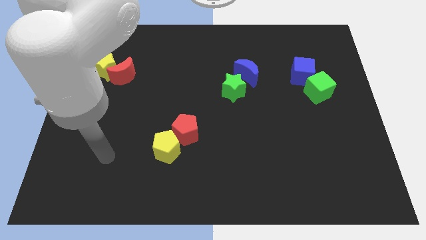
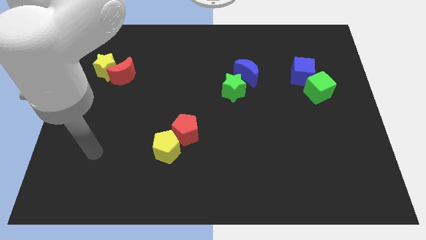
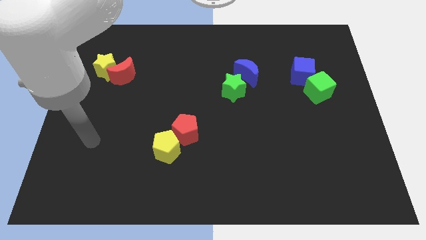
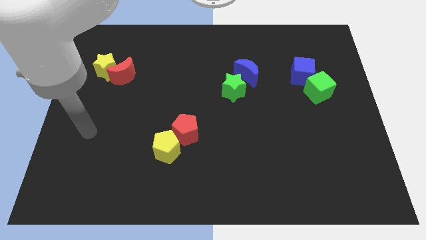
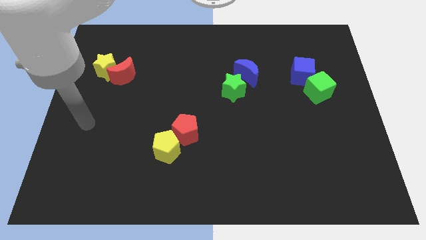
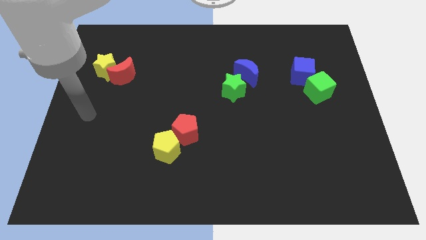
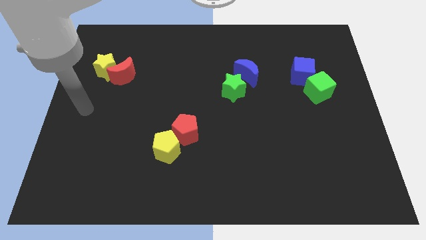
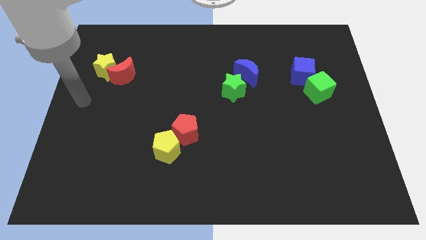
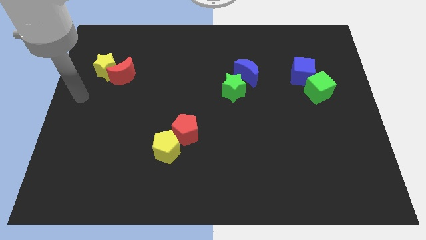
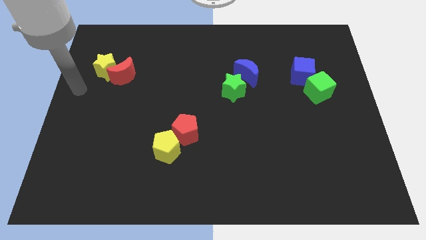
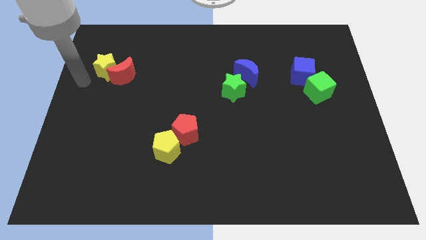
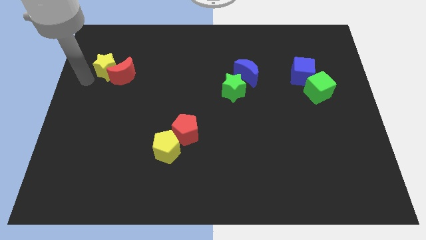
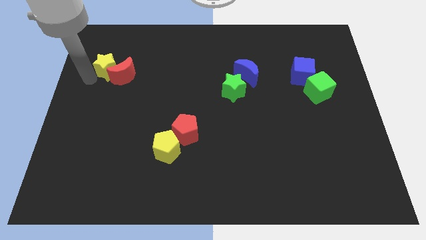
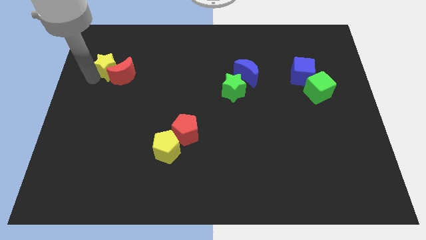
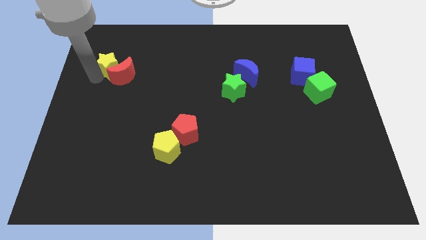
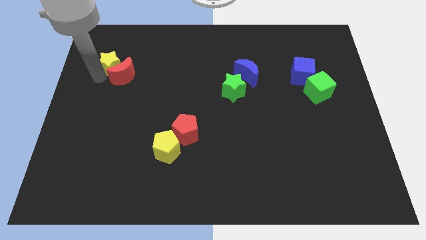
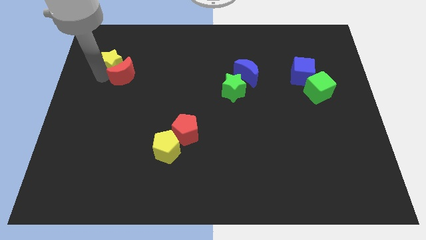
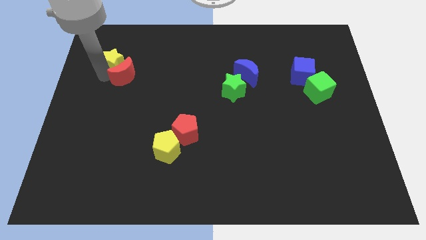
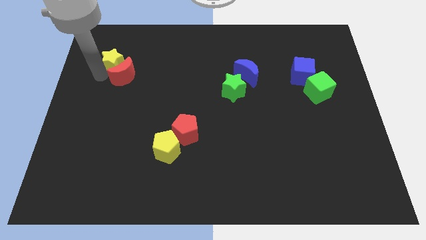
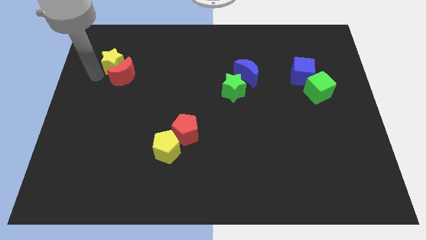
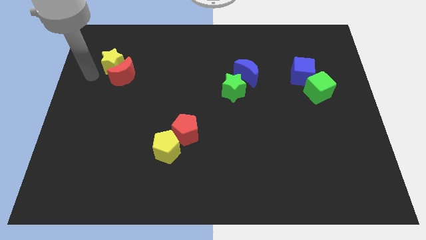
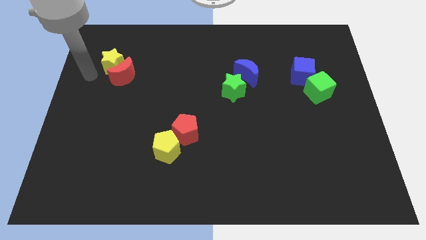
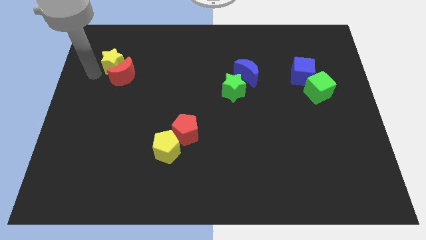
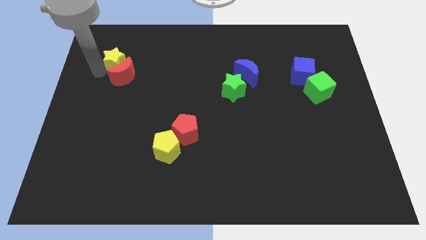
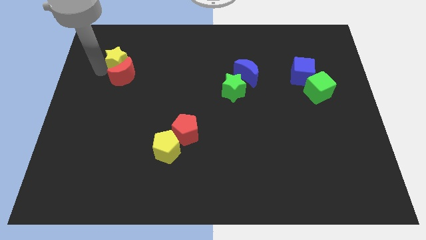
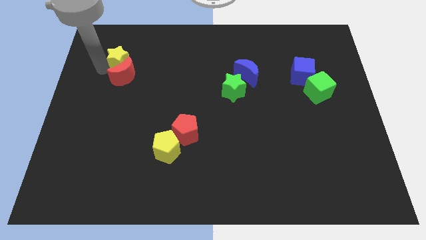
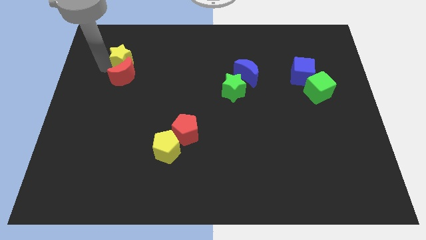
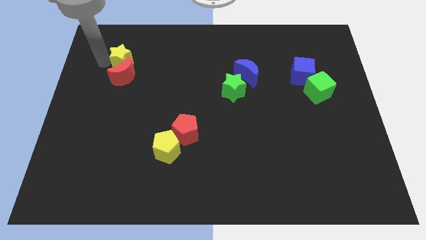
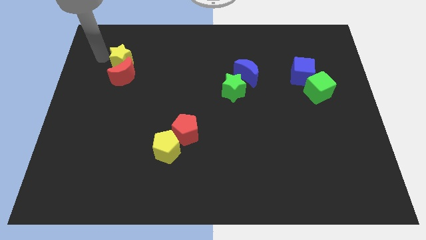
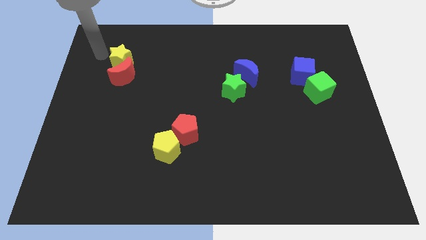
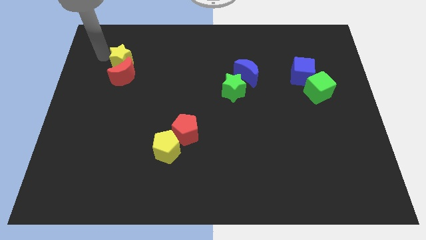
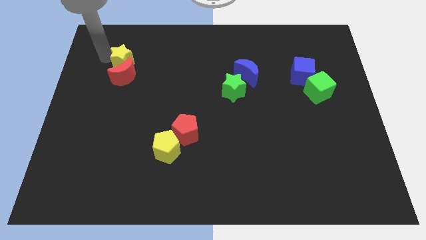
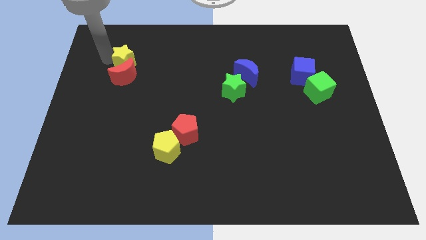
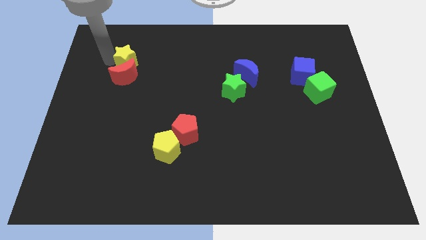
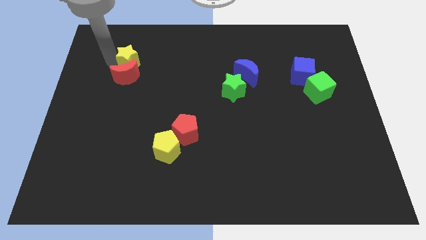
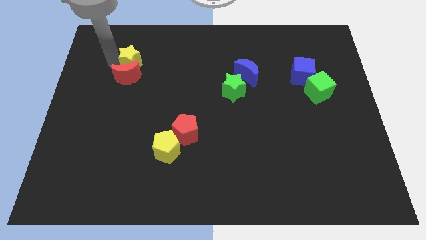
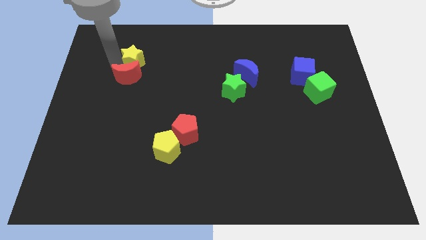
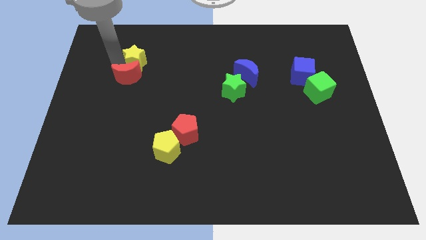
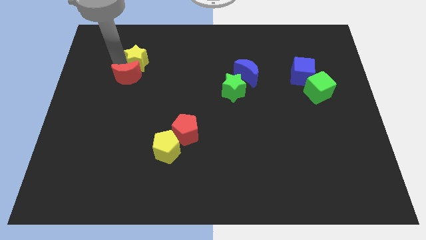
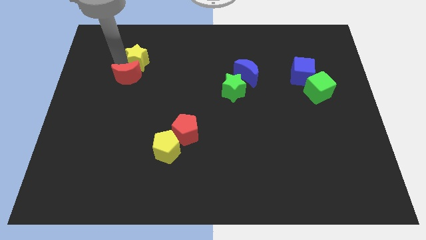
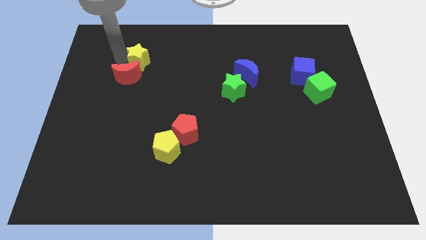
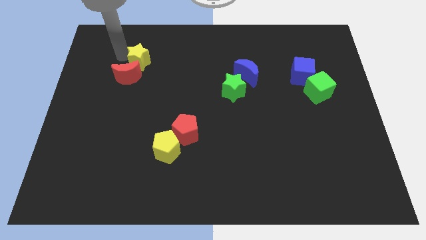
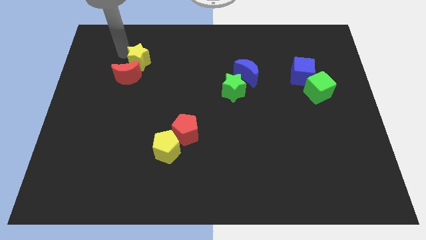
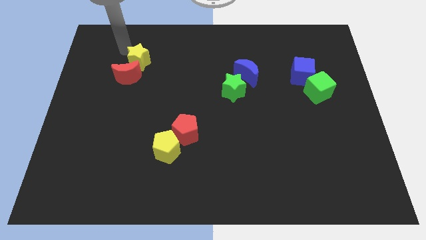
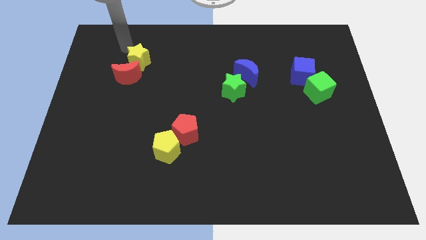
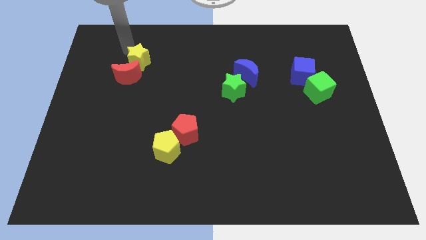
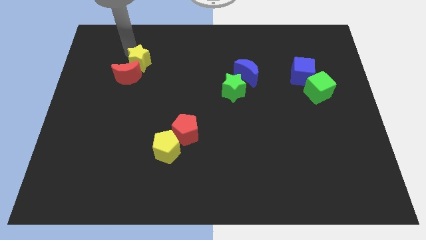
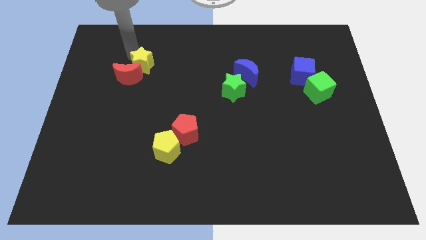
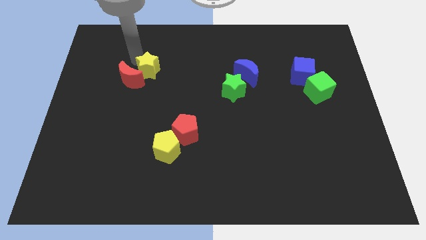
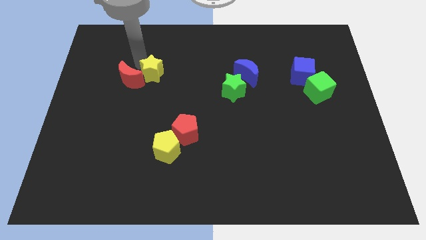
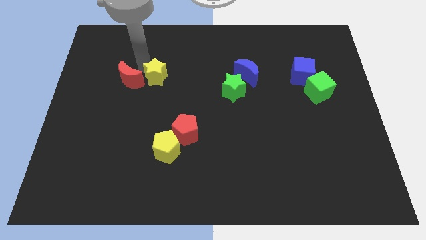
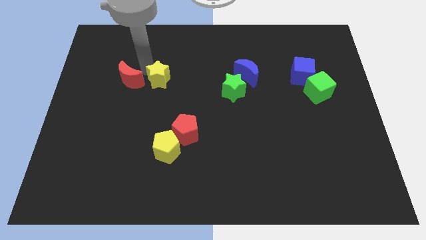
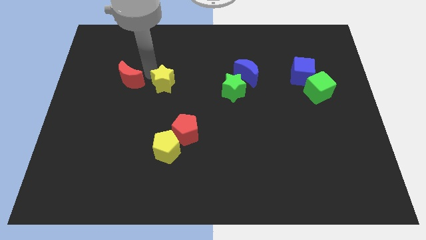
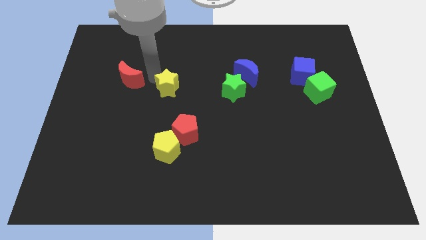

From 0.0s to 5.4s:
move the yellow star to the middle of the board

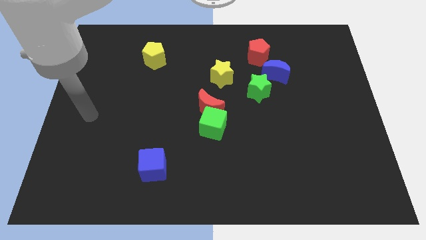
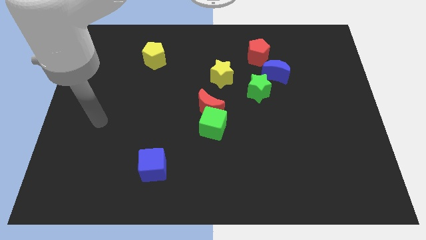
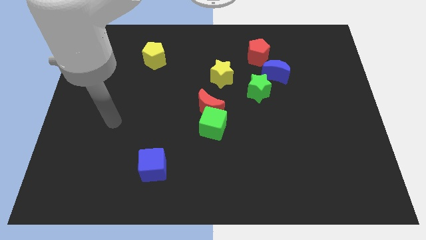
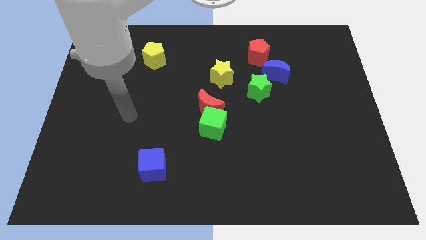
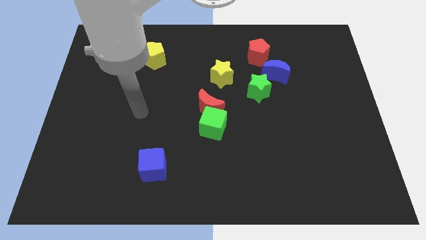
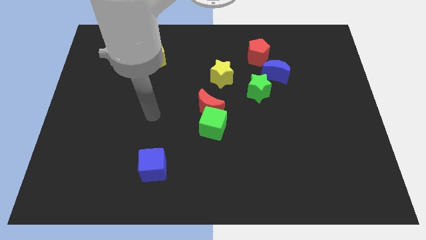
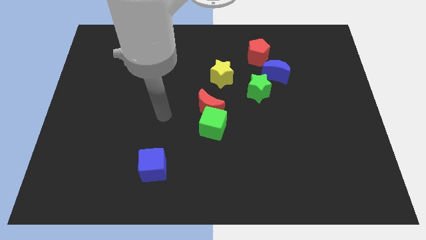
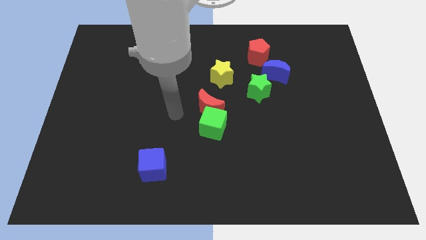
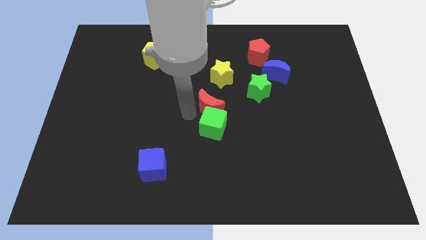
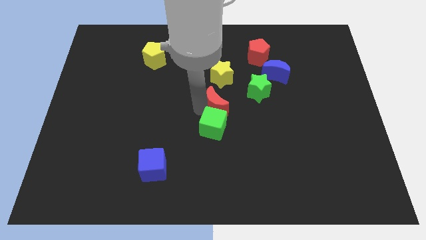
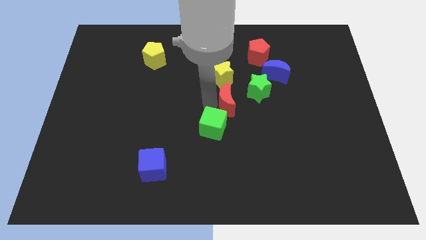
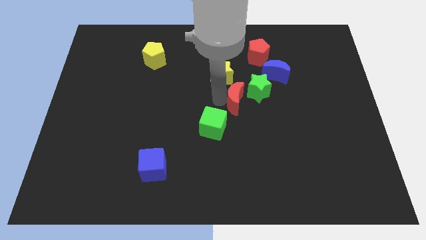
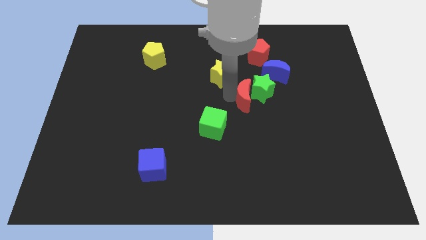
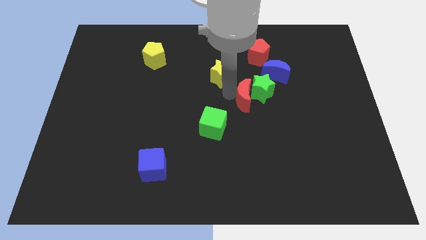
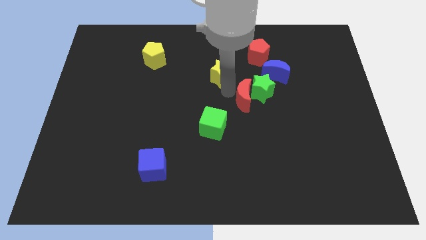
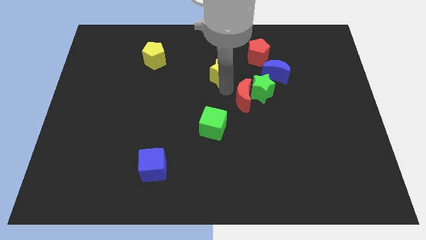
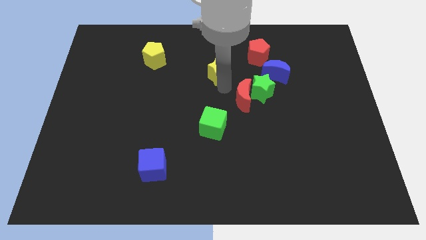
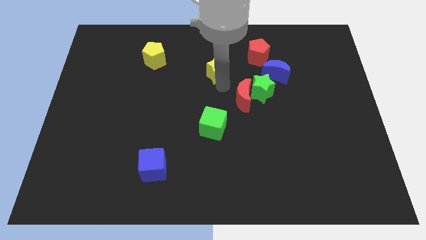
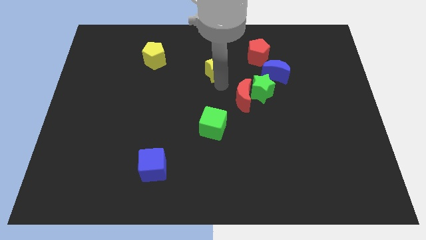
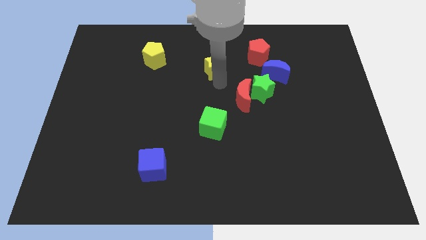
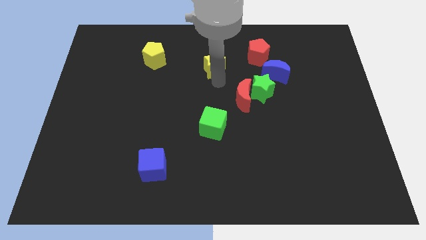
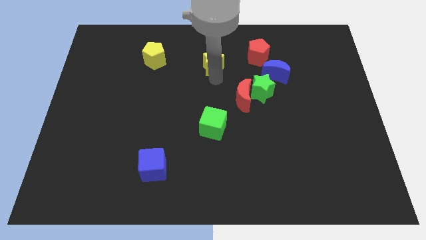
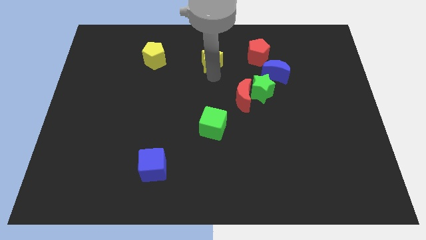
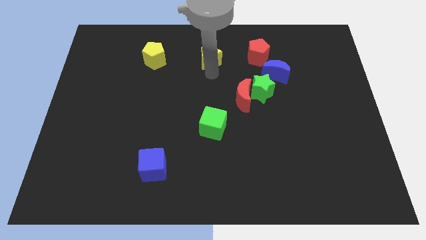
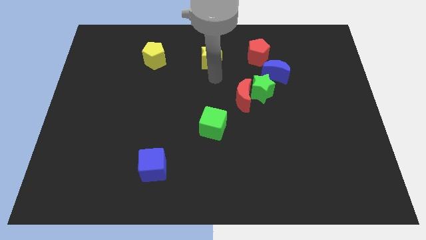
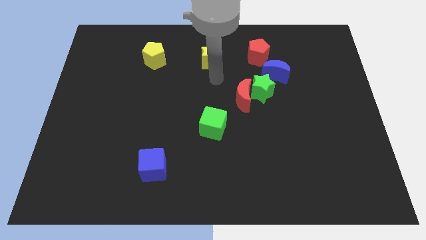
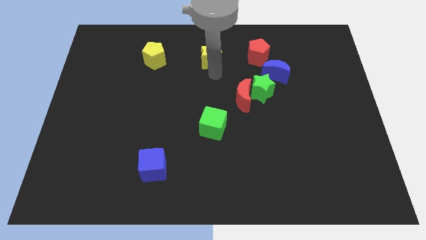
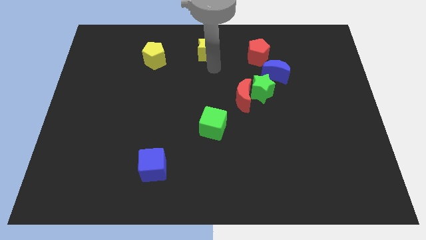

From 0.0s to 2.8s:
put the yellow star to the top
